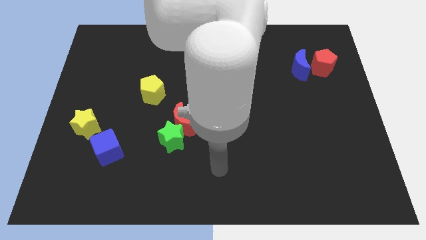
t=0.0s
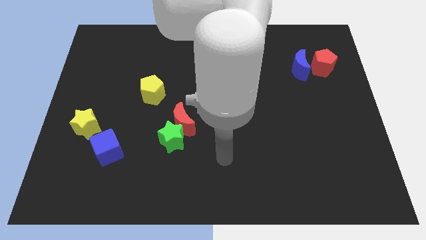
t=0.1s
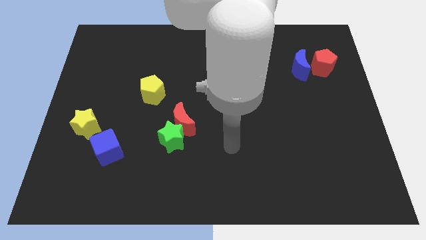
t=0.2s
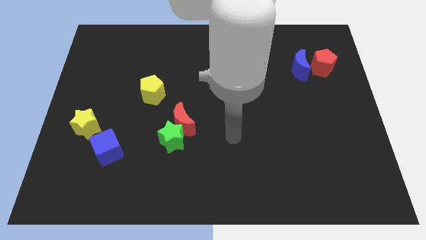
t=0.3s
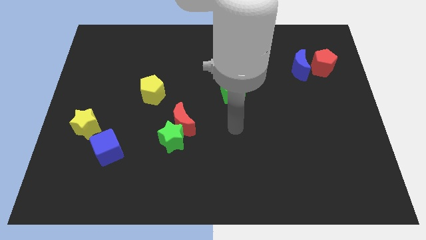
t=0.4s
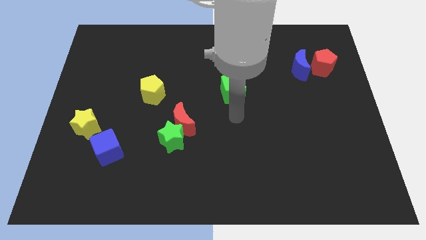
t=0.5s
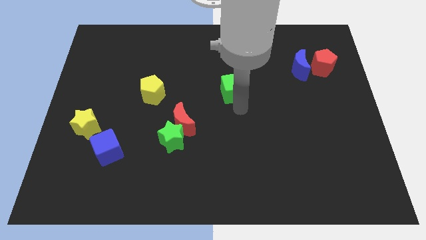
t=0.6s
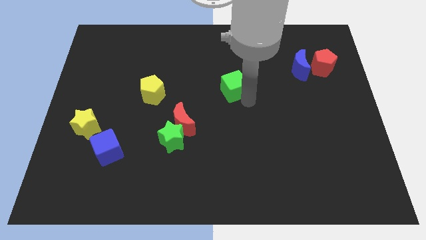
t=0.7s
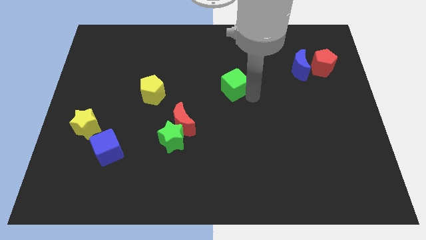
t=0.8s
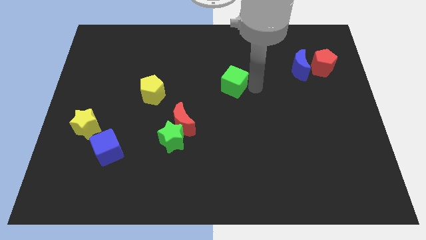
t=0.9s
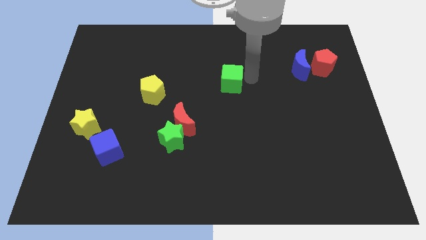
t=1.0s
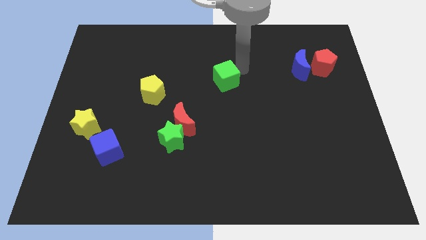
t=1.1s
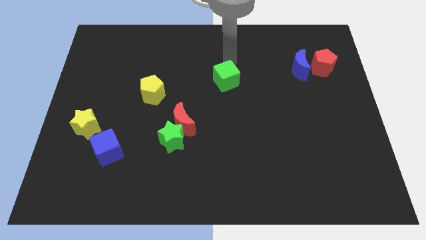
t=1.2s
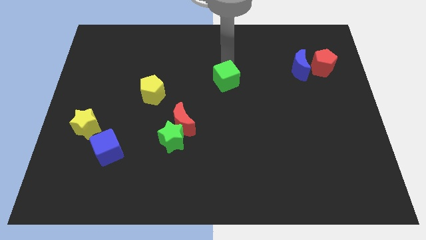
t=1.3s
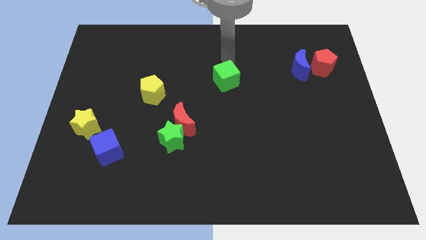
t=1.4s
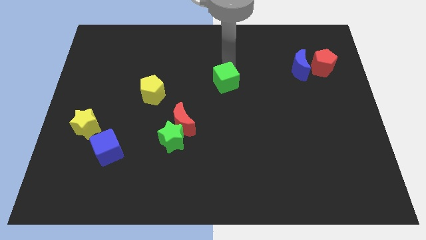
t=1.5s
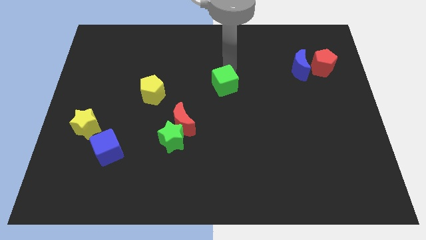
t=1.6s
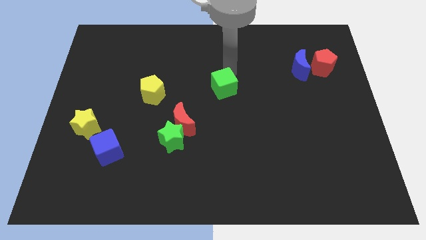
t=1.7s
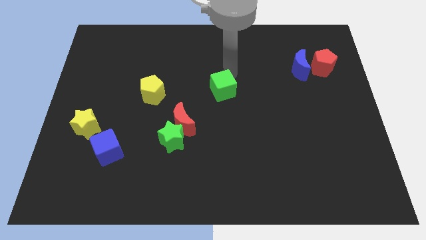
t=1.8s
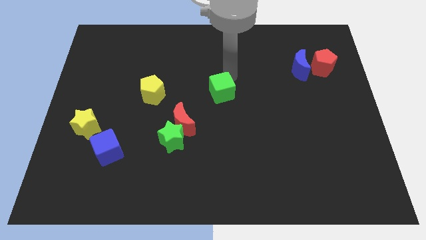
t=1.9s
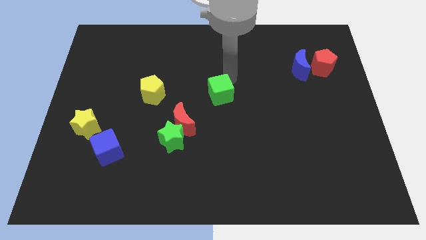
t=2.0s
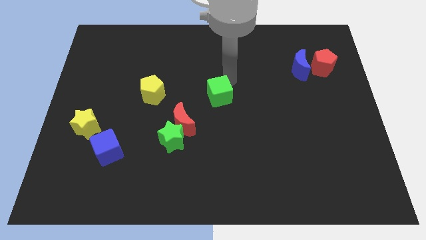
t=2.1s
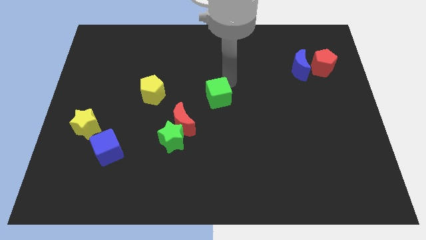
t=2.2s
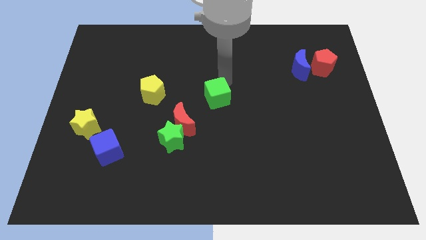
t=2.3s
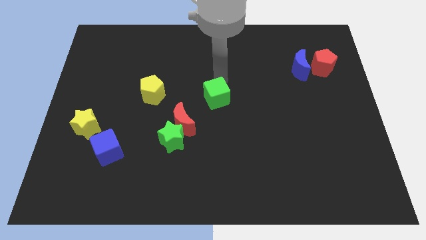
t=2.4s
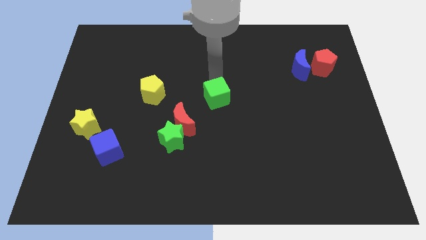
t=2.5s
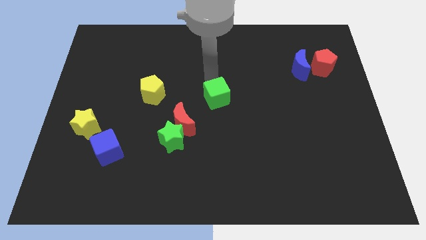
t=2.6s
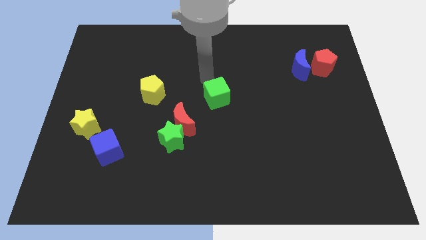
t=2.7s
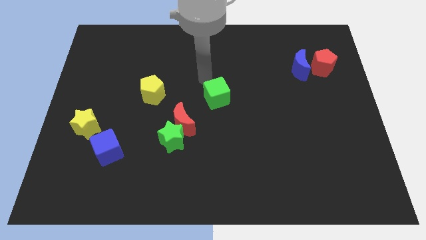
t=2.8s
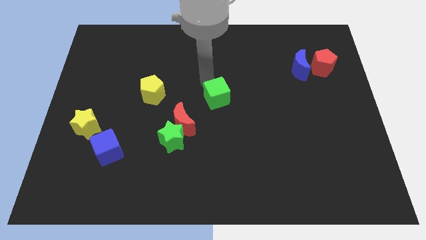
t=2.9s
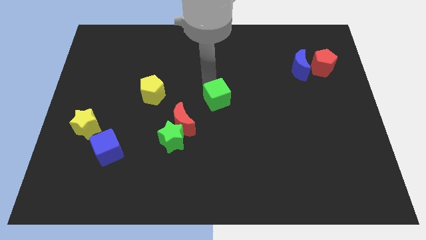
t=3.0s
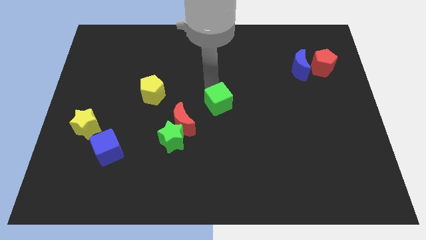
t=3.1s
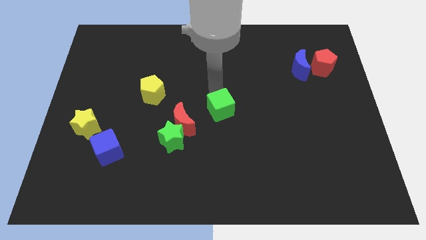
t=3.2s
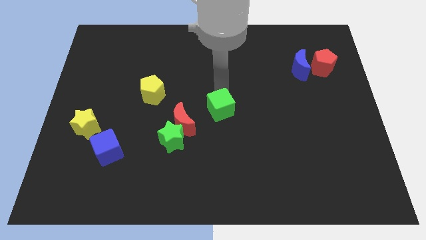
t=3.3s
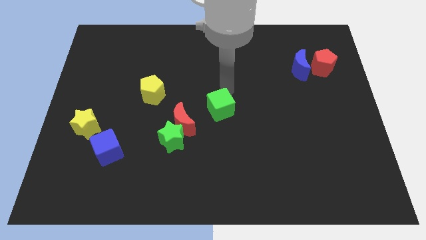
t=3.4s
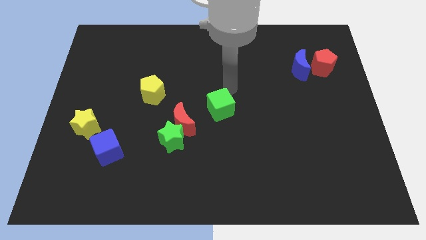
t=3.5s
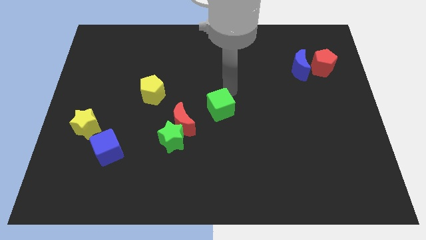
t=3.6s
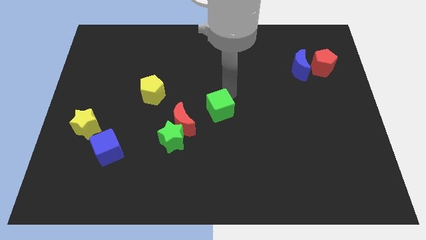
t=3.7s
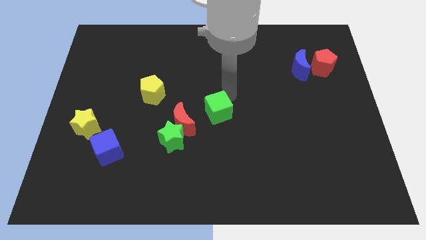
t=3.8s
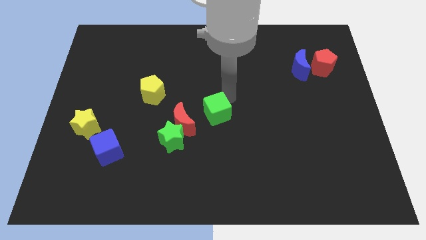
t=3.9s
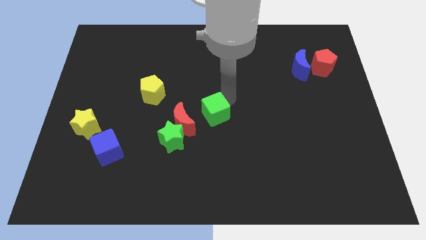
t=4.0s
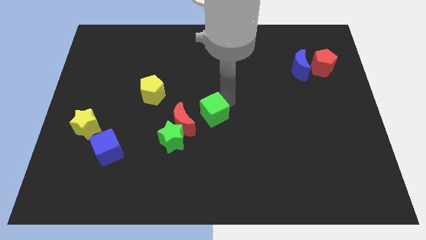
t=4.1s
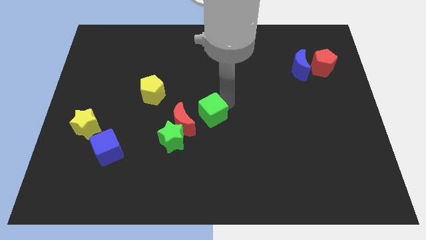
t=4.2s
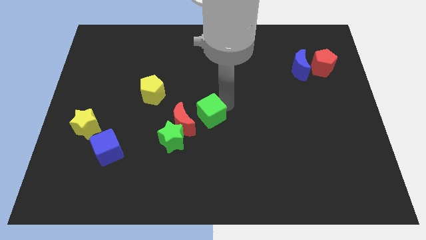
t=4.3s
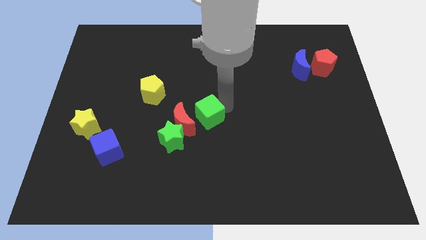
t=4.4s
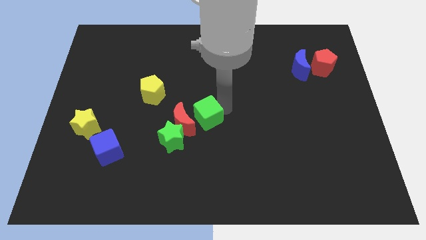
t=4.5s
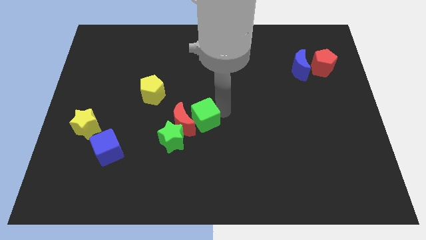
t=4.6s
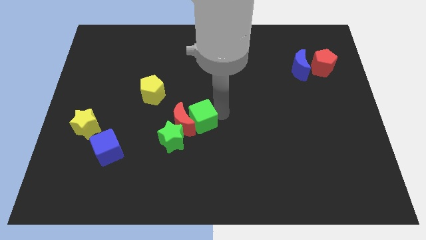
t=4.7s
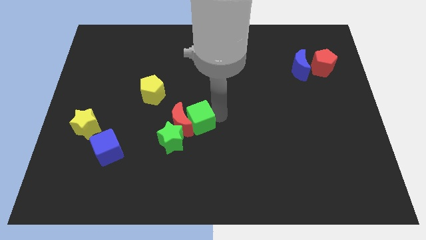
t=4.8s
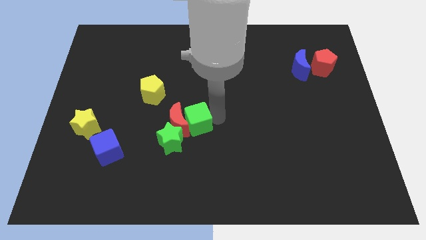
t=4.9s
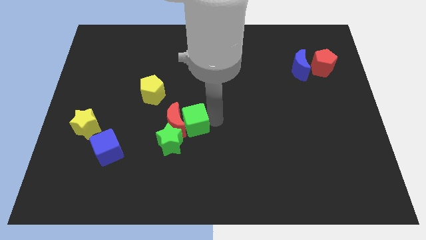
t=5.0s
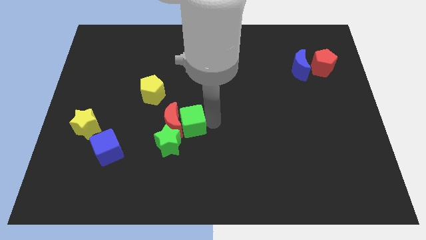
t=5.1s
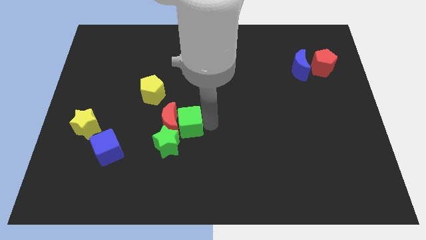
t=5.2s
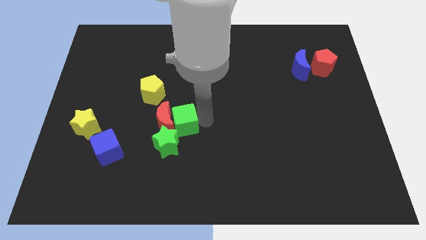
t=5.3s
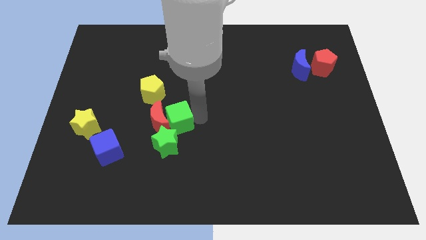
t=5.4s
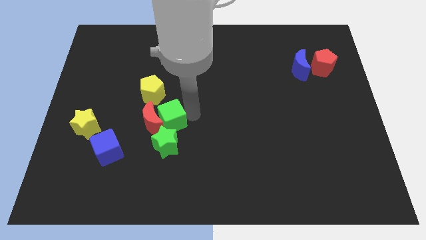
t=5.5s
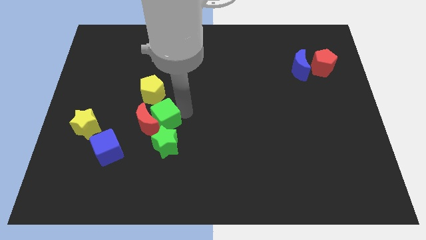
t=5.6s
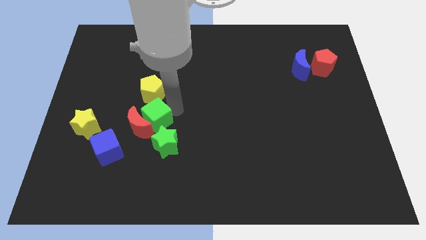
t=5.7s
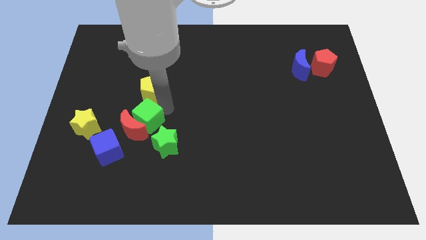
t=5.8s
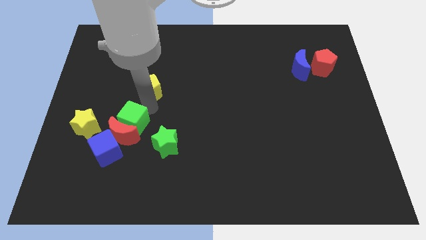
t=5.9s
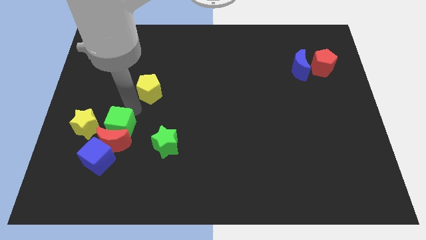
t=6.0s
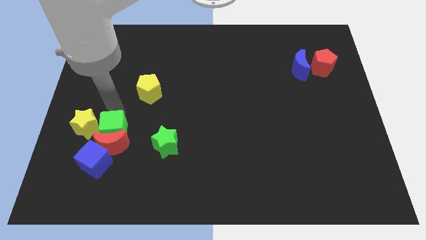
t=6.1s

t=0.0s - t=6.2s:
move the green cube down and to the left

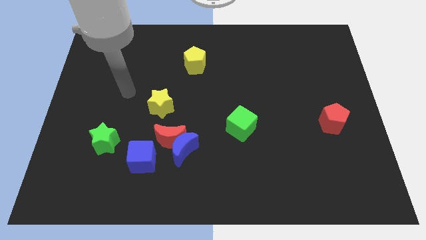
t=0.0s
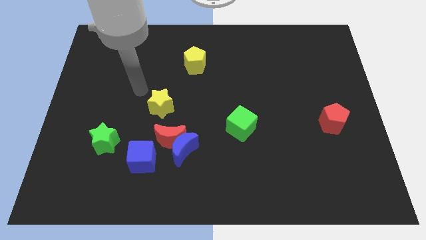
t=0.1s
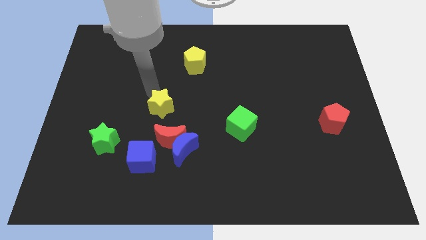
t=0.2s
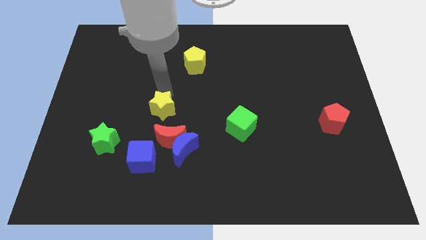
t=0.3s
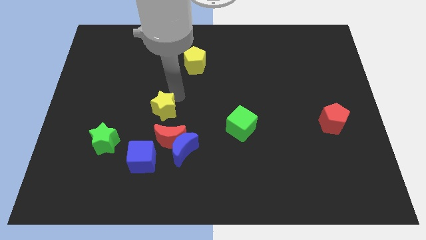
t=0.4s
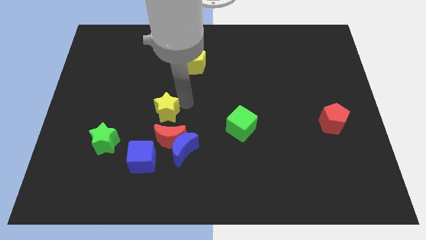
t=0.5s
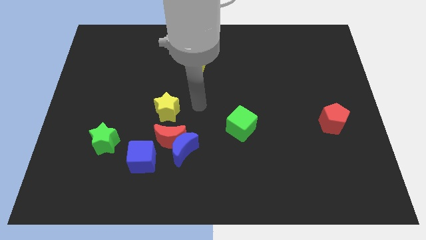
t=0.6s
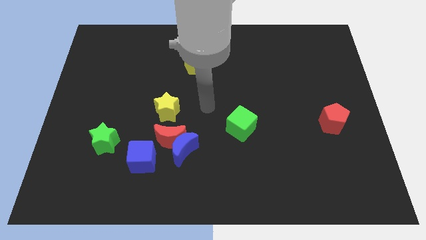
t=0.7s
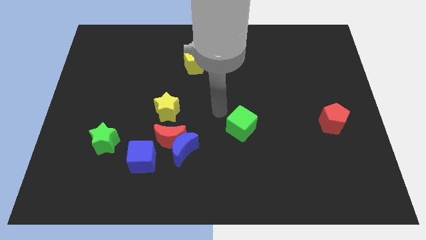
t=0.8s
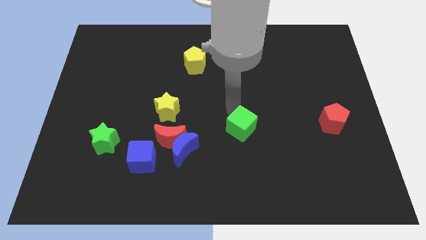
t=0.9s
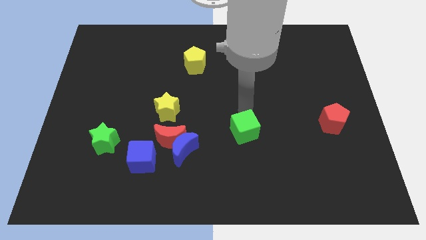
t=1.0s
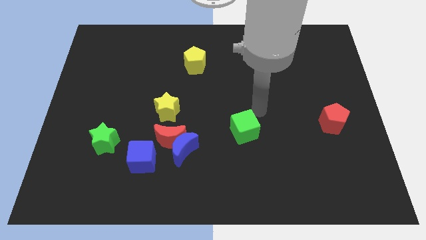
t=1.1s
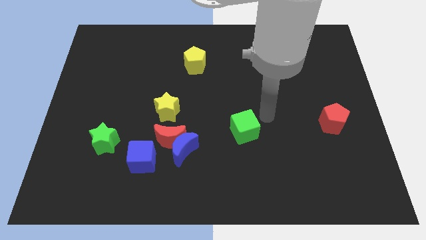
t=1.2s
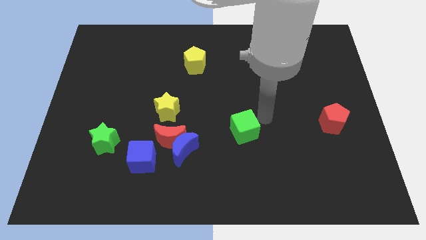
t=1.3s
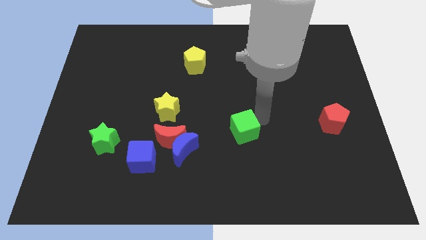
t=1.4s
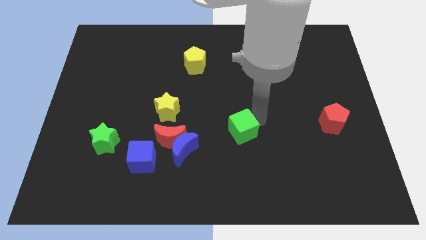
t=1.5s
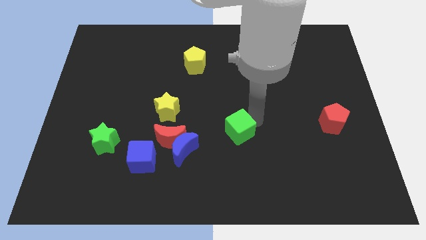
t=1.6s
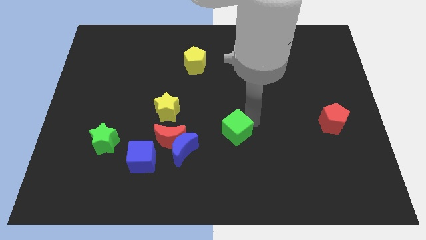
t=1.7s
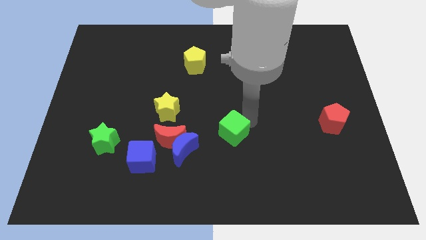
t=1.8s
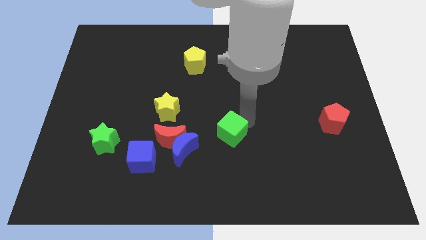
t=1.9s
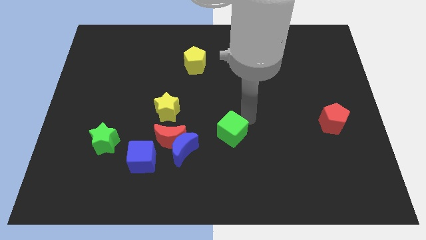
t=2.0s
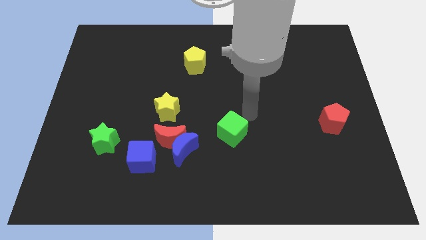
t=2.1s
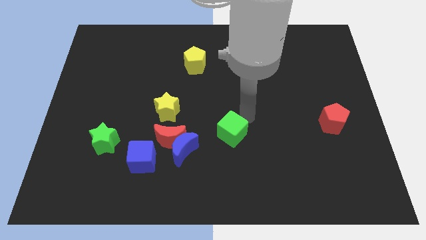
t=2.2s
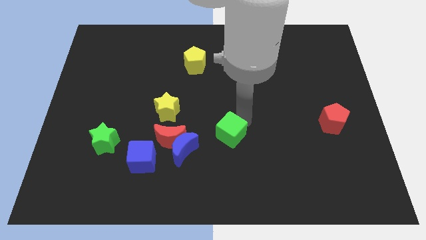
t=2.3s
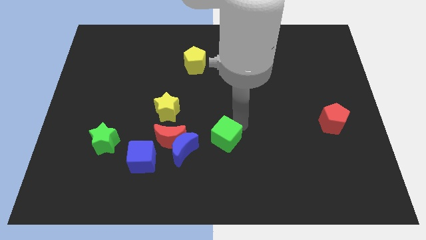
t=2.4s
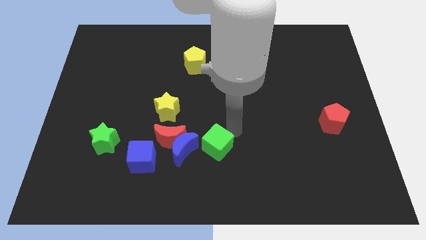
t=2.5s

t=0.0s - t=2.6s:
move the green cube a little bit diagonally down and left
